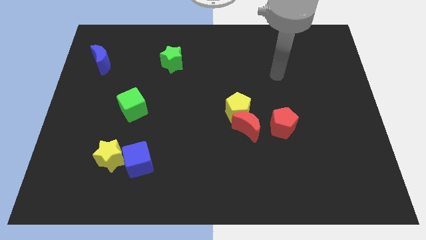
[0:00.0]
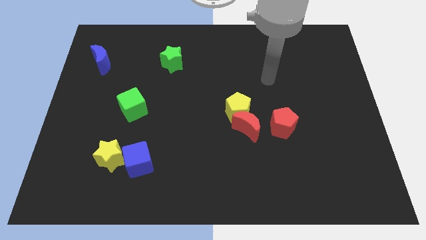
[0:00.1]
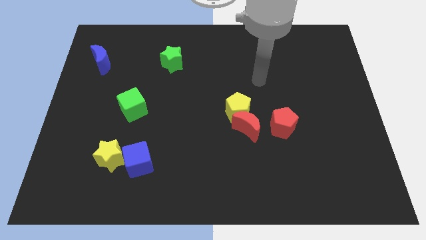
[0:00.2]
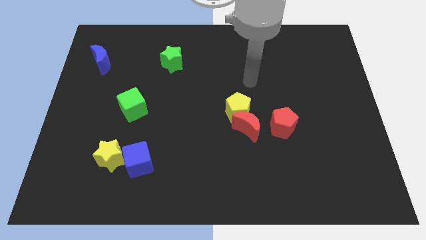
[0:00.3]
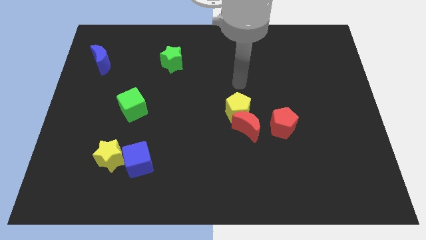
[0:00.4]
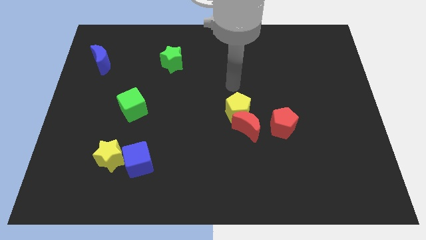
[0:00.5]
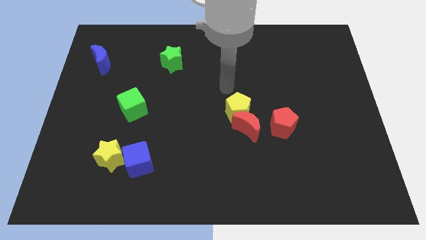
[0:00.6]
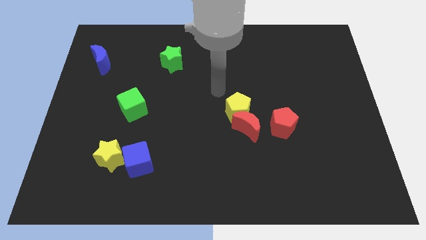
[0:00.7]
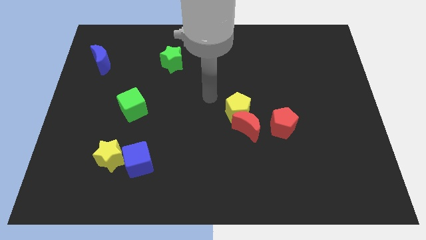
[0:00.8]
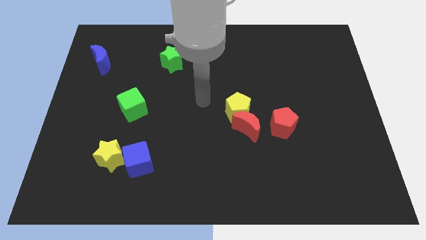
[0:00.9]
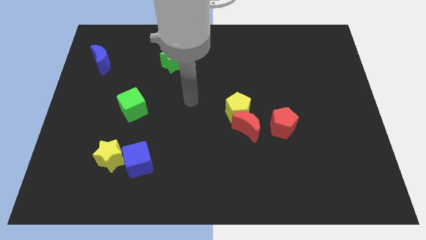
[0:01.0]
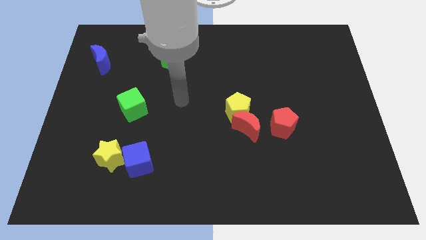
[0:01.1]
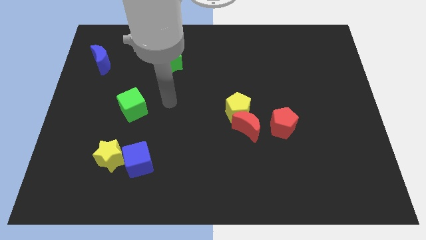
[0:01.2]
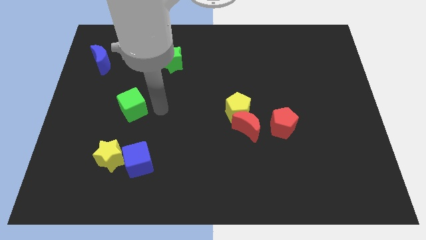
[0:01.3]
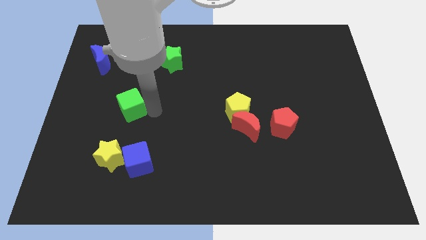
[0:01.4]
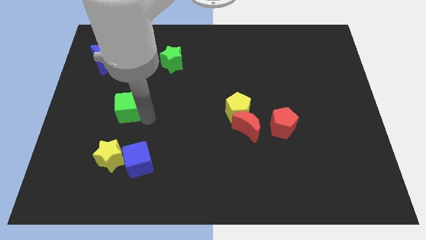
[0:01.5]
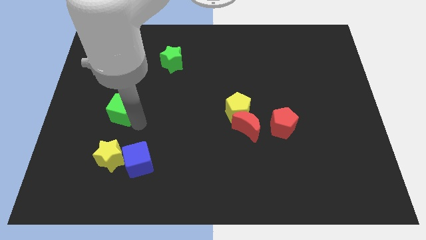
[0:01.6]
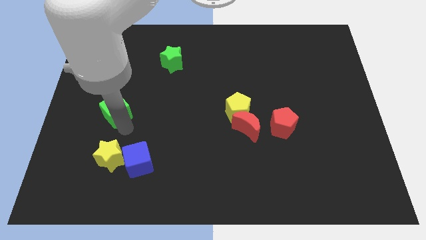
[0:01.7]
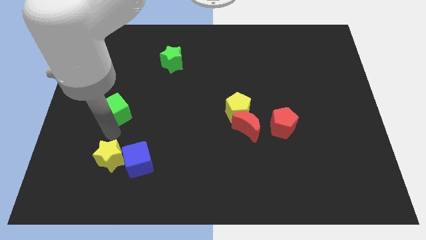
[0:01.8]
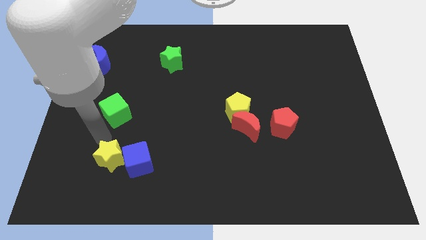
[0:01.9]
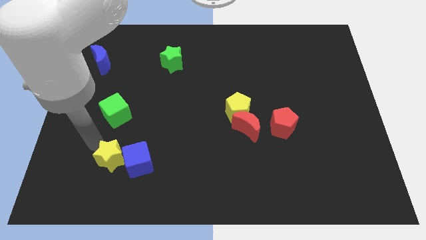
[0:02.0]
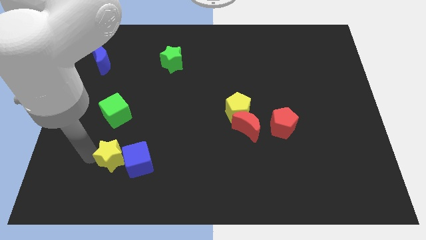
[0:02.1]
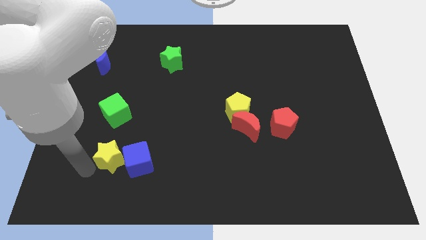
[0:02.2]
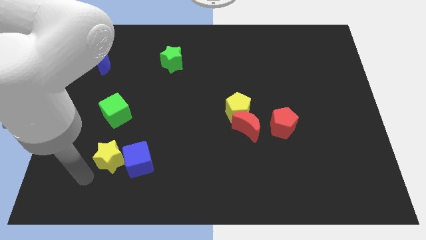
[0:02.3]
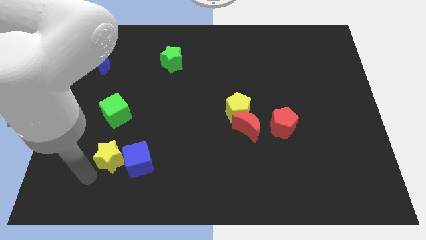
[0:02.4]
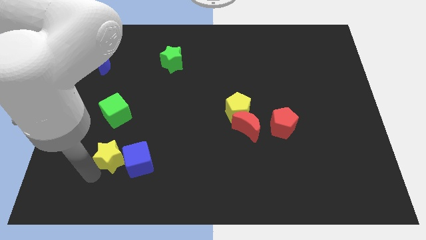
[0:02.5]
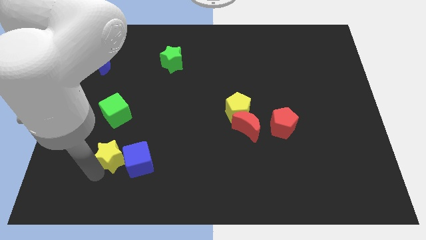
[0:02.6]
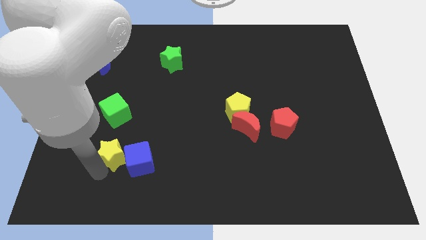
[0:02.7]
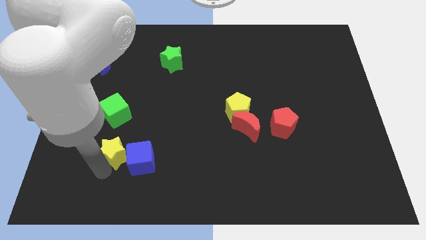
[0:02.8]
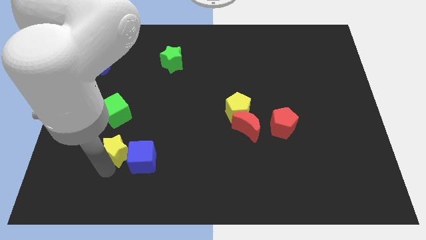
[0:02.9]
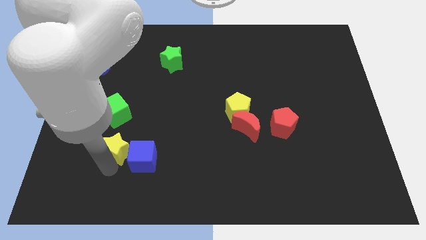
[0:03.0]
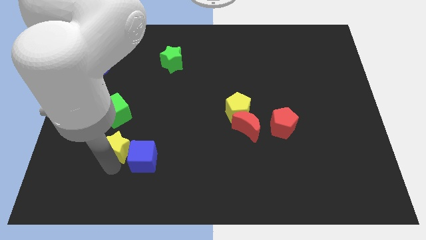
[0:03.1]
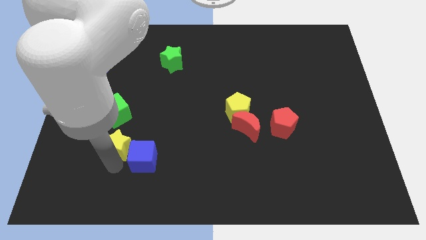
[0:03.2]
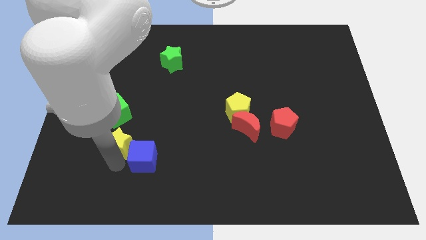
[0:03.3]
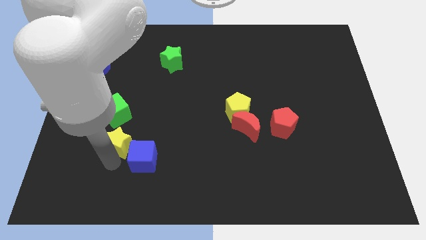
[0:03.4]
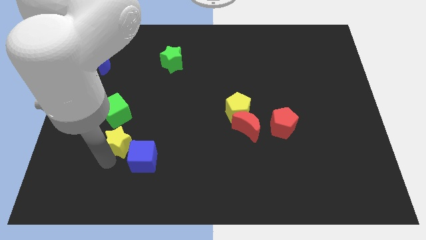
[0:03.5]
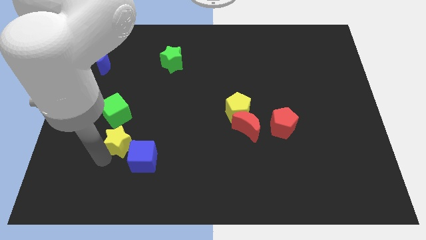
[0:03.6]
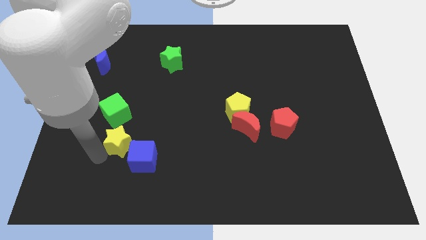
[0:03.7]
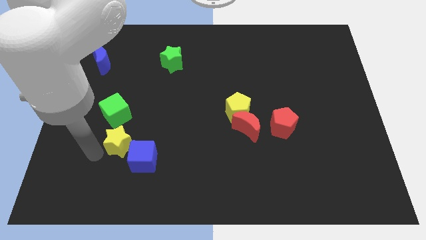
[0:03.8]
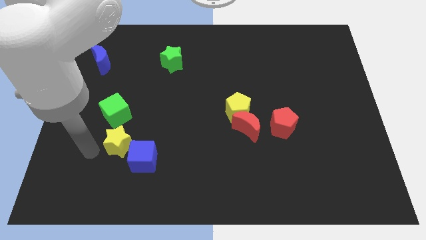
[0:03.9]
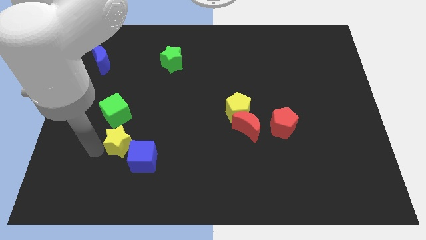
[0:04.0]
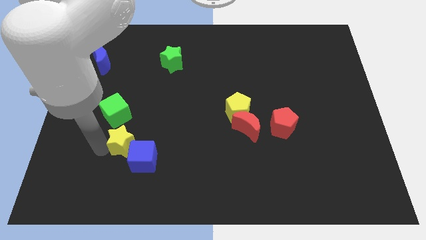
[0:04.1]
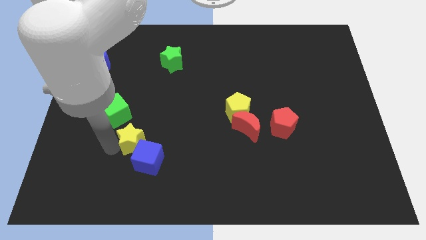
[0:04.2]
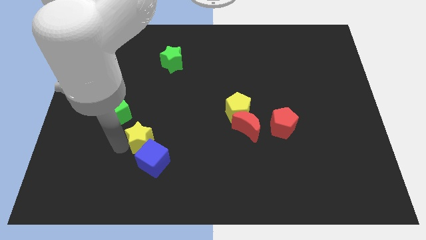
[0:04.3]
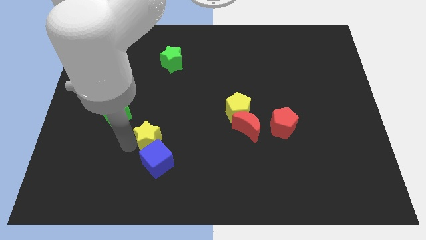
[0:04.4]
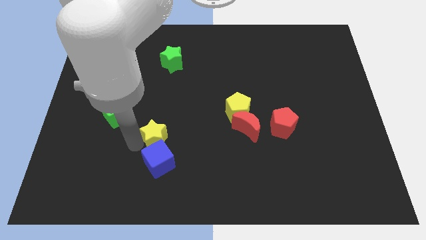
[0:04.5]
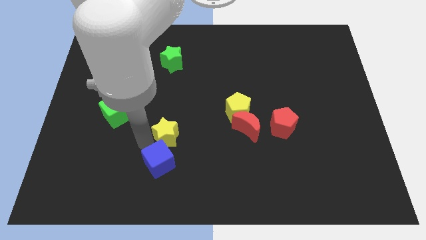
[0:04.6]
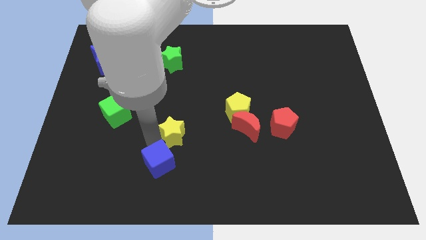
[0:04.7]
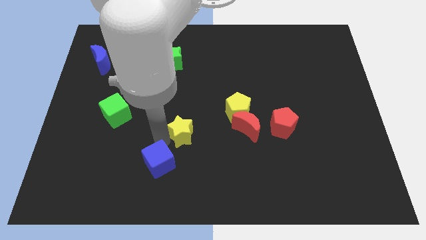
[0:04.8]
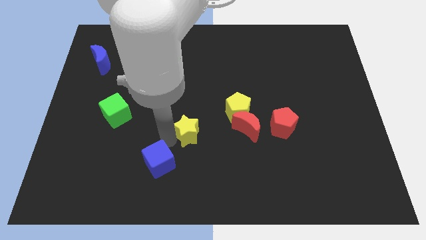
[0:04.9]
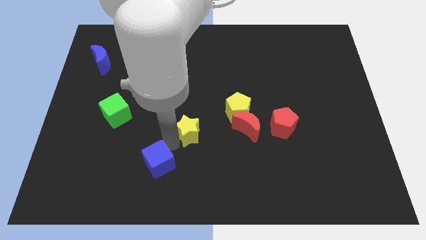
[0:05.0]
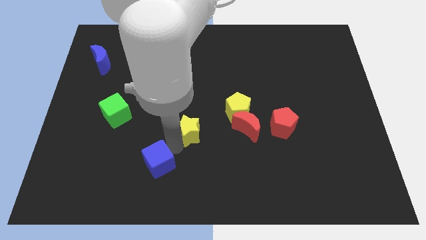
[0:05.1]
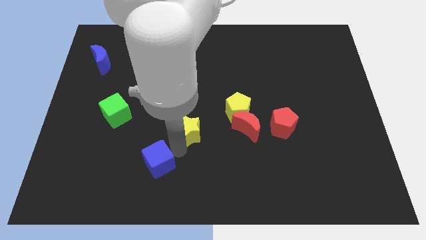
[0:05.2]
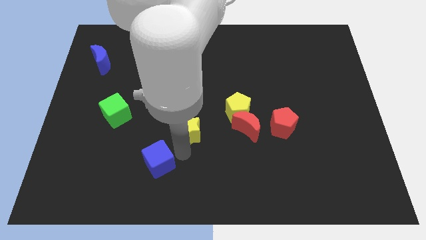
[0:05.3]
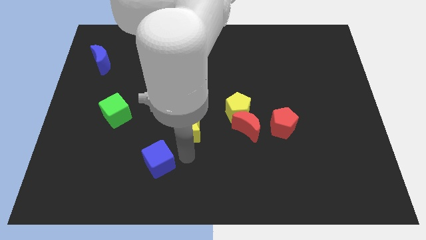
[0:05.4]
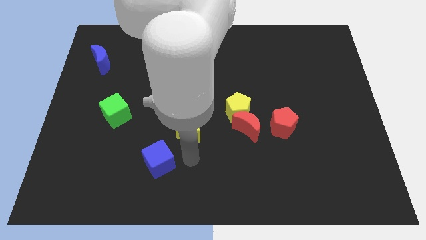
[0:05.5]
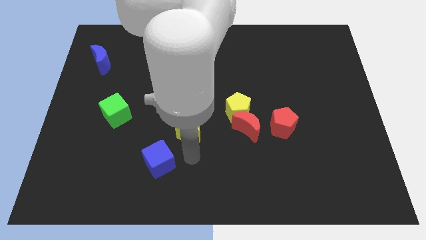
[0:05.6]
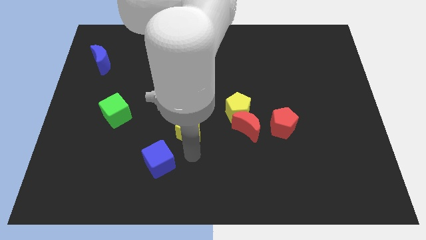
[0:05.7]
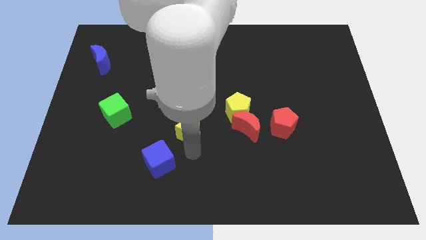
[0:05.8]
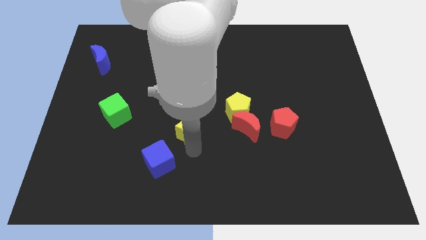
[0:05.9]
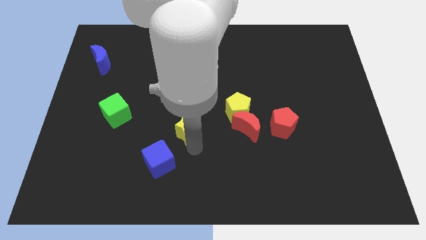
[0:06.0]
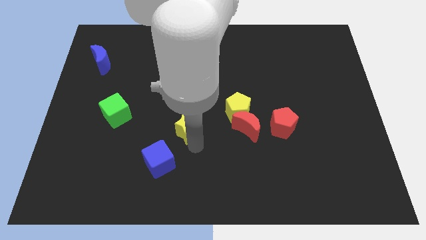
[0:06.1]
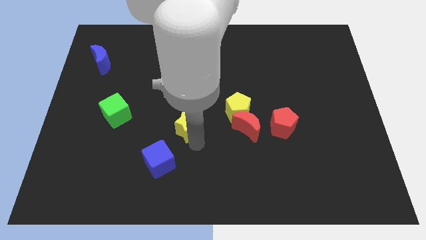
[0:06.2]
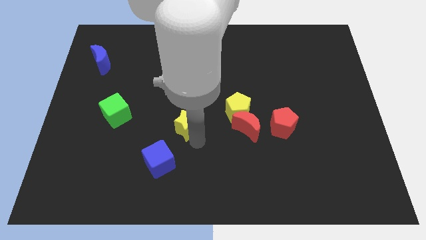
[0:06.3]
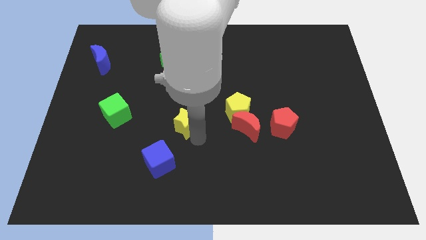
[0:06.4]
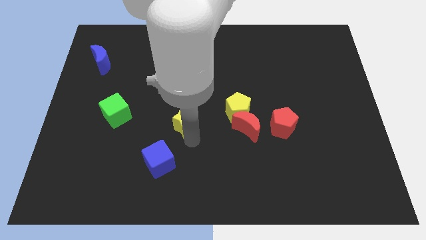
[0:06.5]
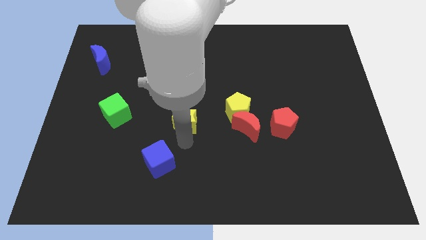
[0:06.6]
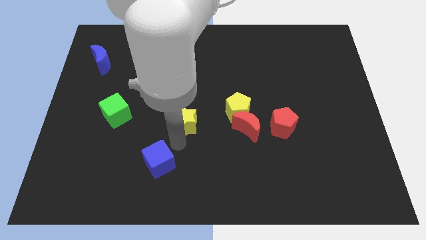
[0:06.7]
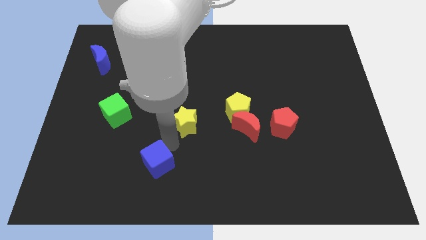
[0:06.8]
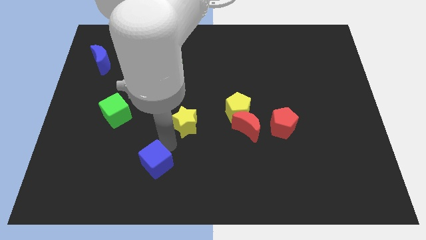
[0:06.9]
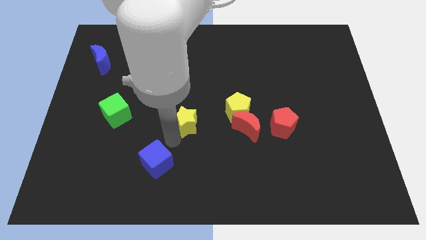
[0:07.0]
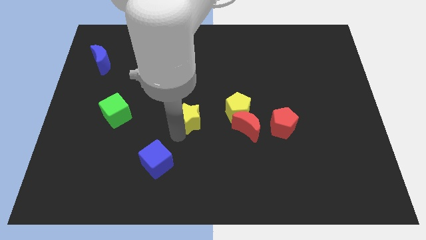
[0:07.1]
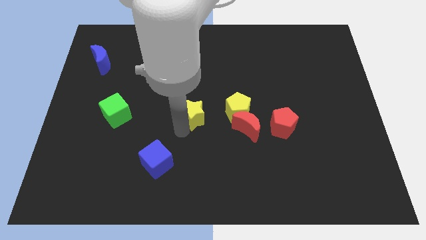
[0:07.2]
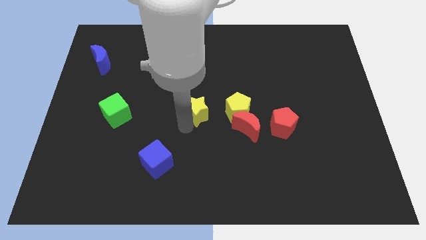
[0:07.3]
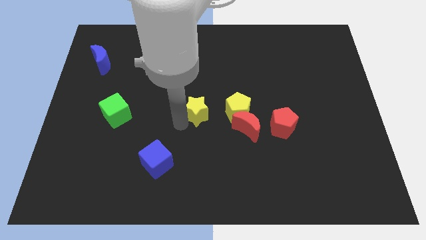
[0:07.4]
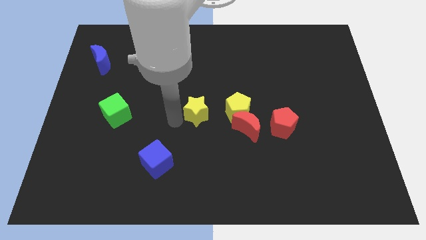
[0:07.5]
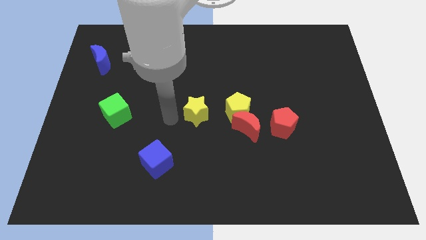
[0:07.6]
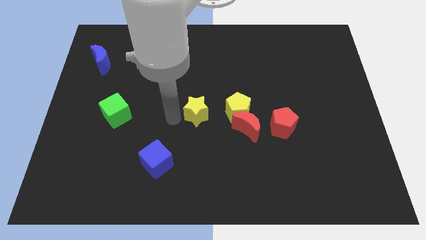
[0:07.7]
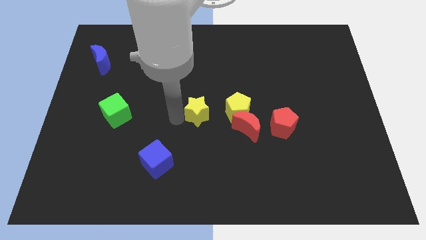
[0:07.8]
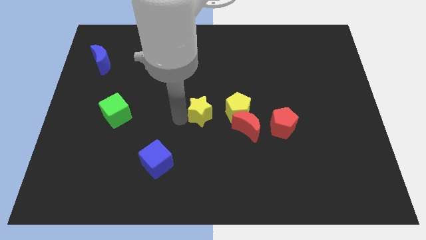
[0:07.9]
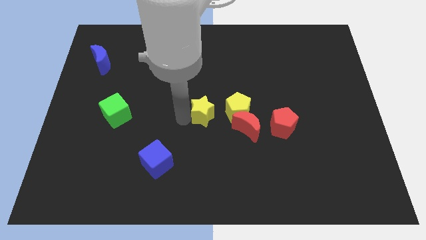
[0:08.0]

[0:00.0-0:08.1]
put the yellow star diagonally up and to the left of the red moon
